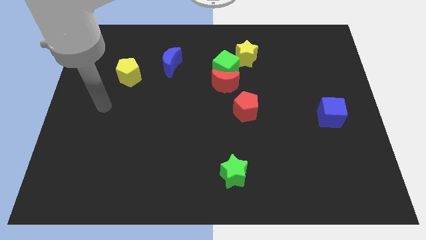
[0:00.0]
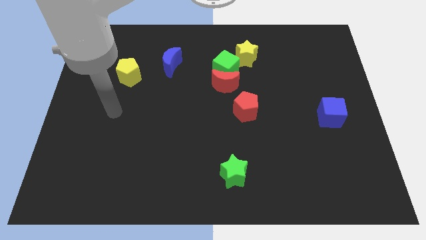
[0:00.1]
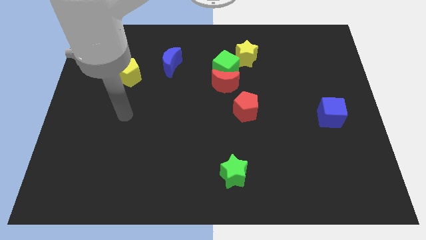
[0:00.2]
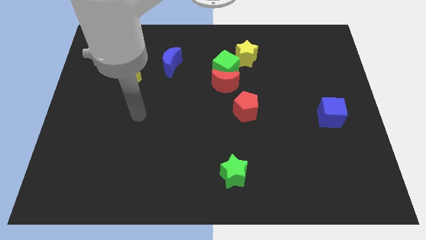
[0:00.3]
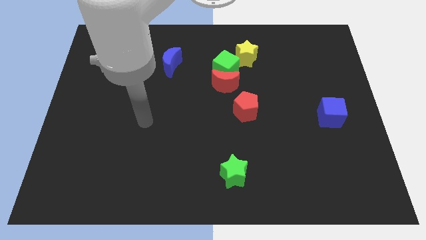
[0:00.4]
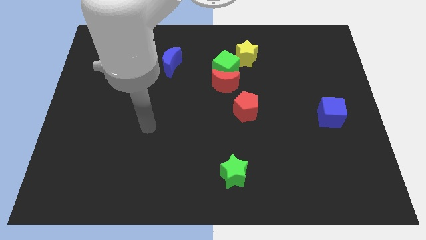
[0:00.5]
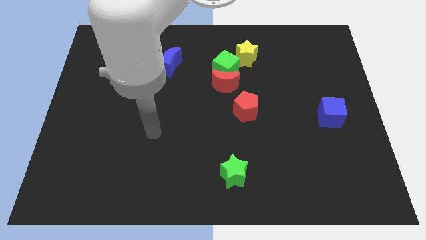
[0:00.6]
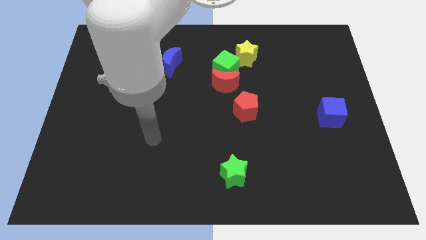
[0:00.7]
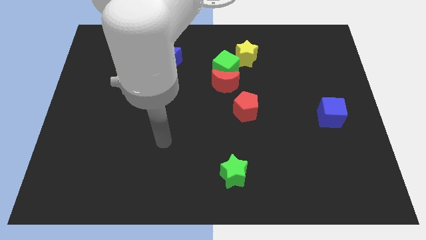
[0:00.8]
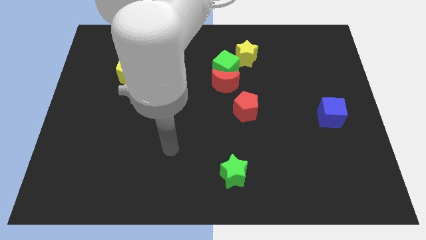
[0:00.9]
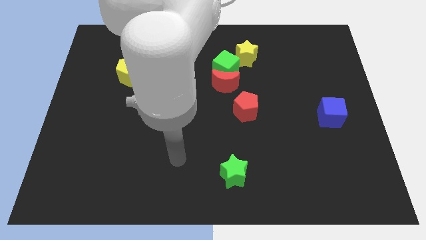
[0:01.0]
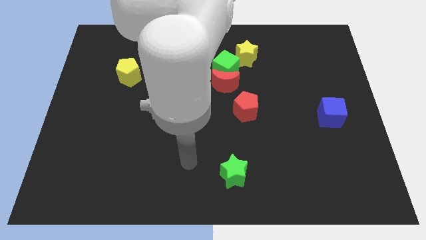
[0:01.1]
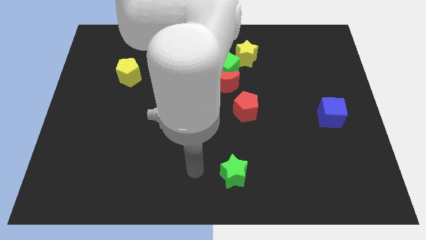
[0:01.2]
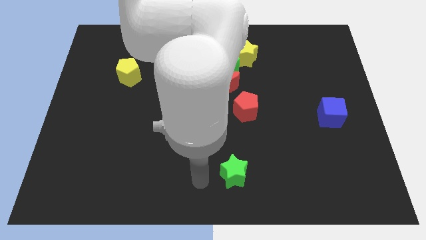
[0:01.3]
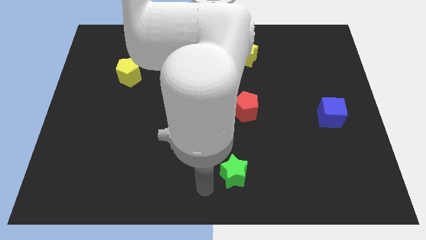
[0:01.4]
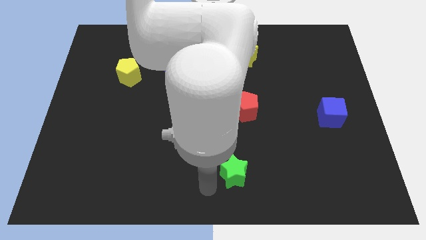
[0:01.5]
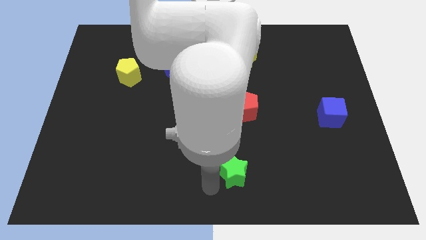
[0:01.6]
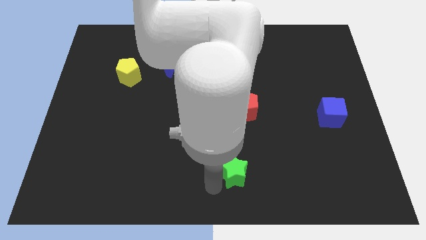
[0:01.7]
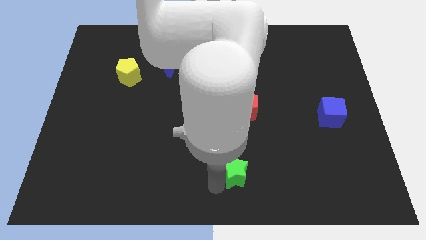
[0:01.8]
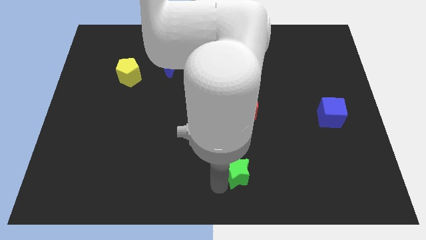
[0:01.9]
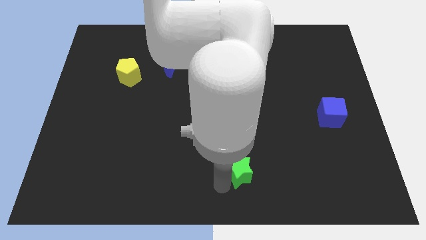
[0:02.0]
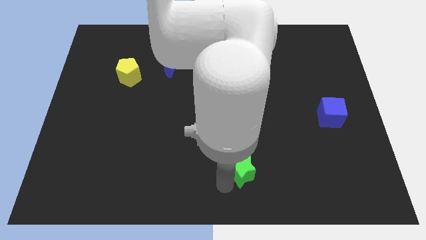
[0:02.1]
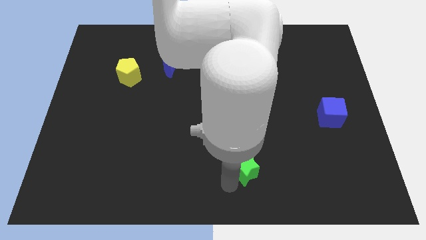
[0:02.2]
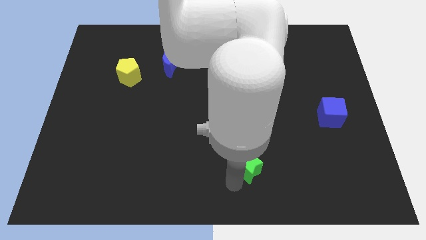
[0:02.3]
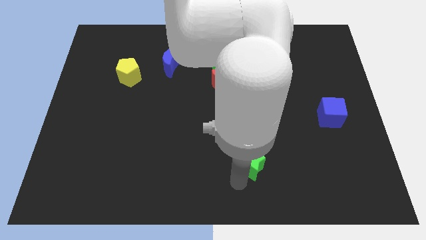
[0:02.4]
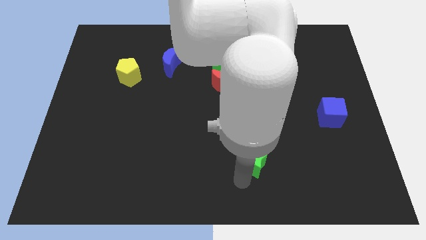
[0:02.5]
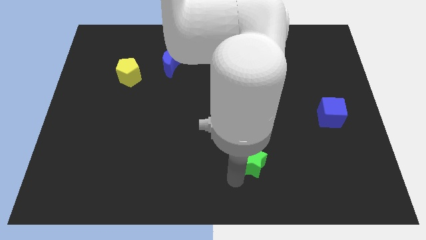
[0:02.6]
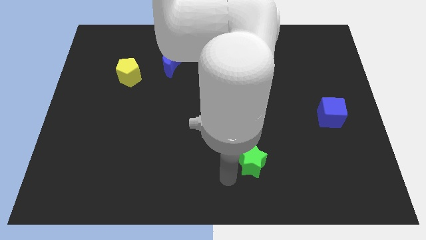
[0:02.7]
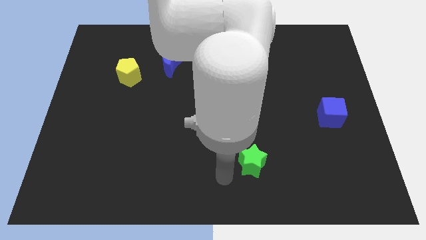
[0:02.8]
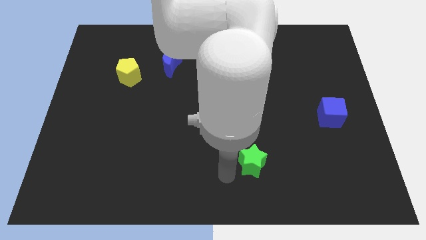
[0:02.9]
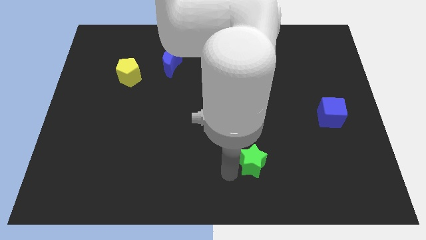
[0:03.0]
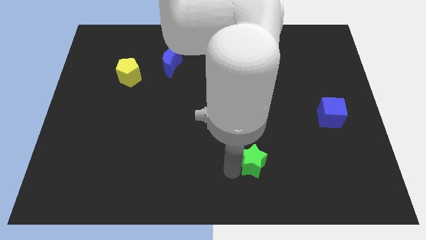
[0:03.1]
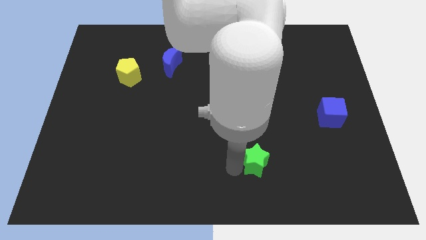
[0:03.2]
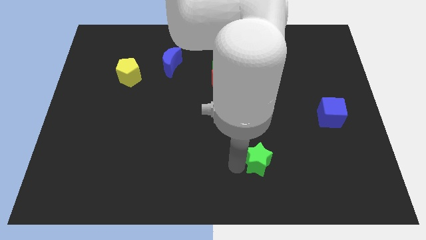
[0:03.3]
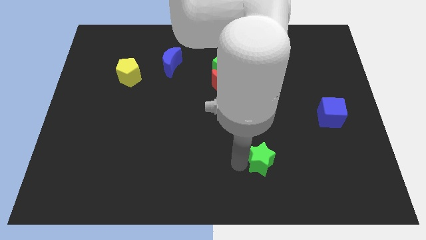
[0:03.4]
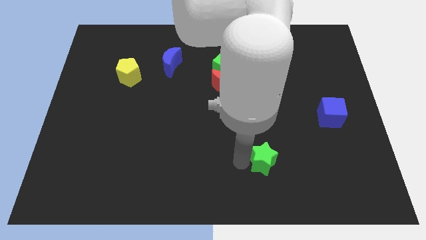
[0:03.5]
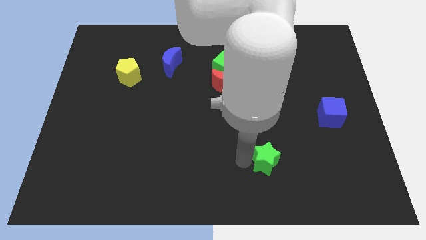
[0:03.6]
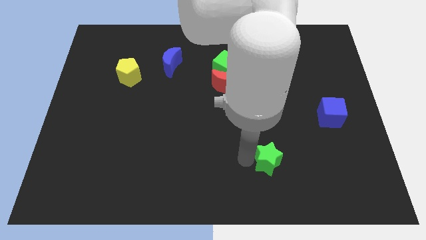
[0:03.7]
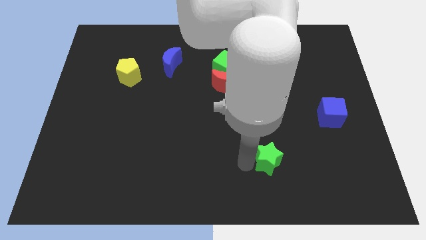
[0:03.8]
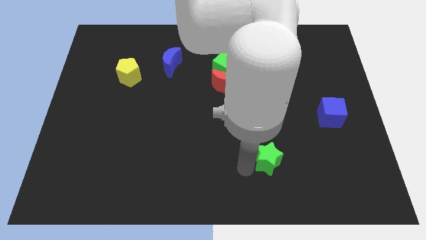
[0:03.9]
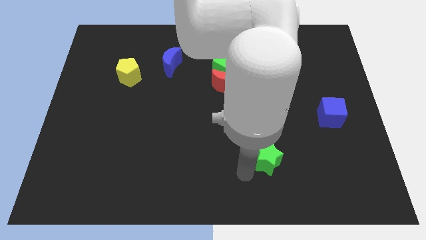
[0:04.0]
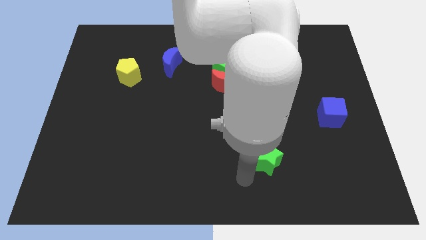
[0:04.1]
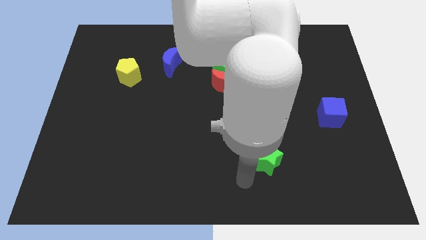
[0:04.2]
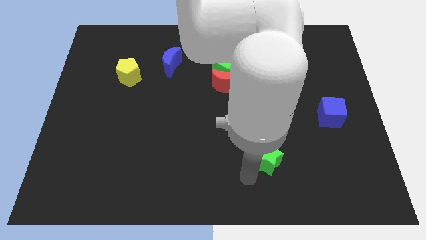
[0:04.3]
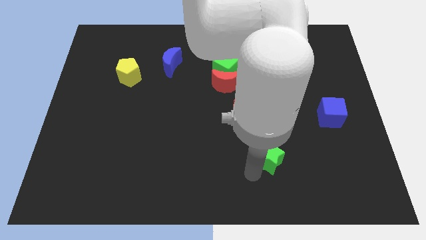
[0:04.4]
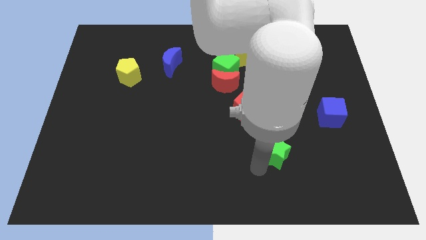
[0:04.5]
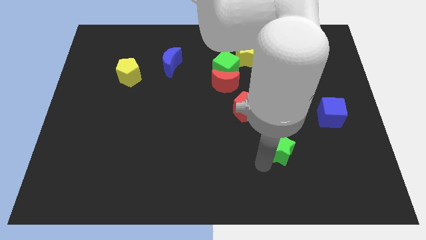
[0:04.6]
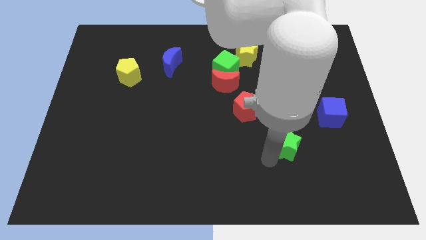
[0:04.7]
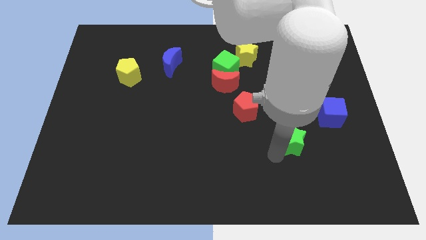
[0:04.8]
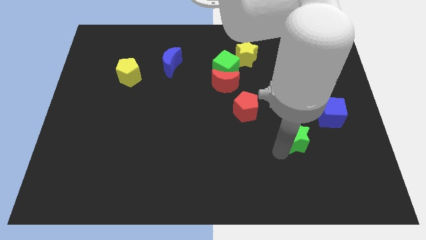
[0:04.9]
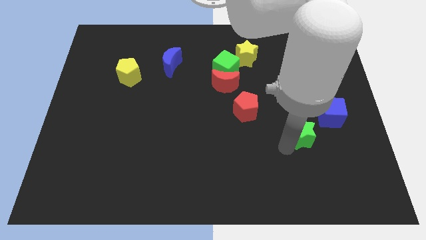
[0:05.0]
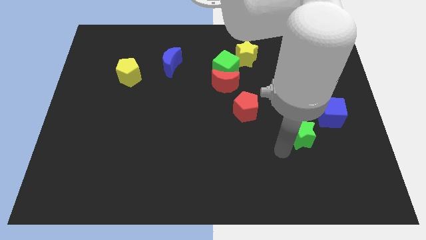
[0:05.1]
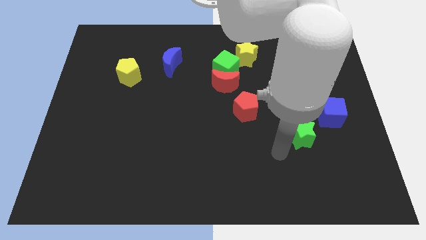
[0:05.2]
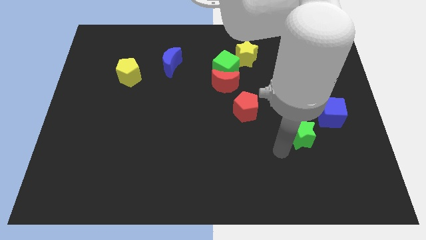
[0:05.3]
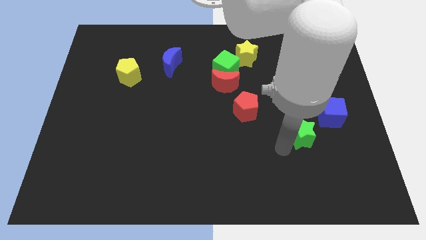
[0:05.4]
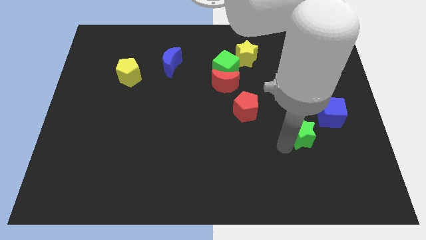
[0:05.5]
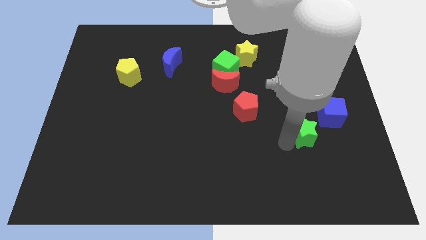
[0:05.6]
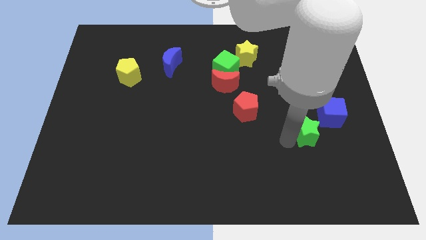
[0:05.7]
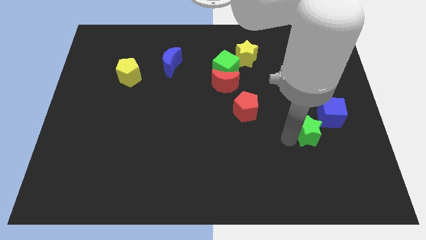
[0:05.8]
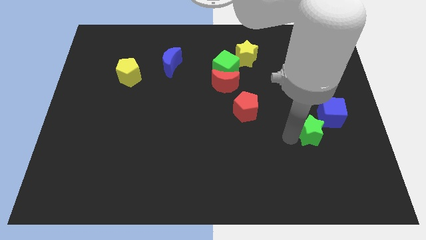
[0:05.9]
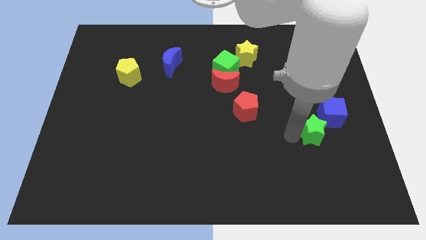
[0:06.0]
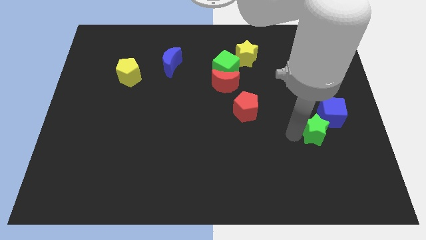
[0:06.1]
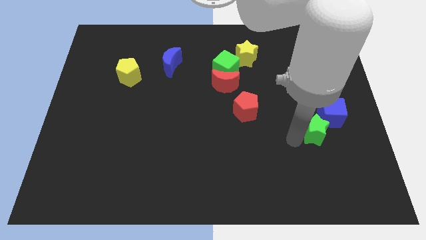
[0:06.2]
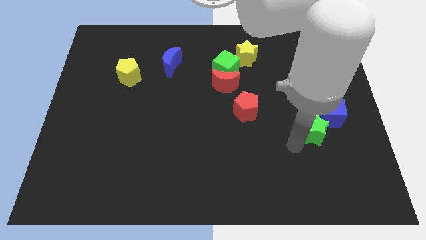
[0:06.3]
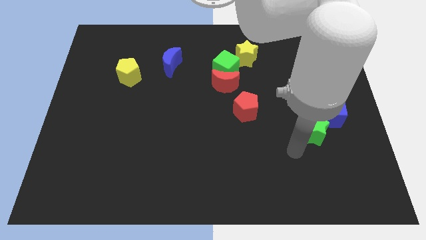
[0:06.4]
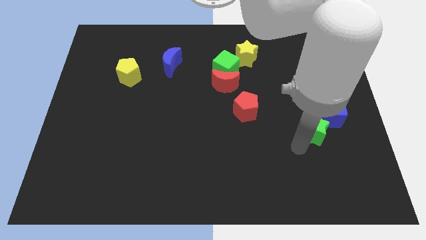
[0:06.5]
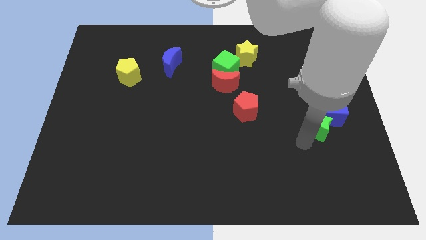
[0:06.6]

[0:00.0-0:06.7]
push the green star next to the blue cube
